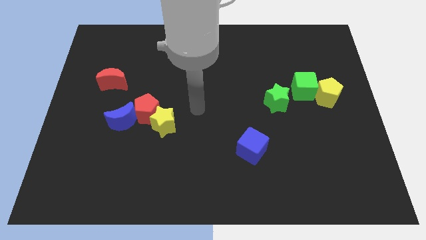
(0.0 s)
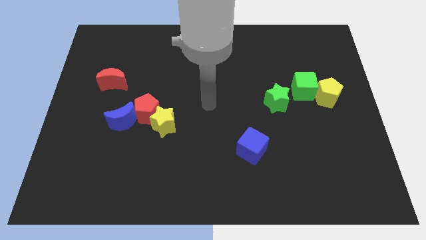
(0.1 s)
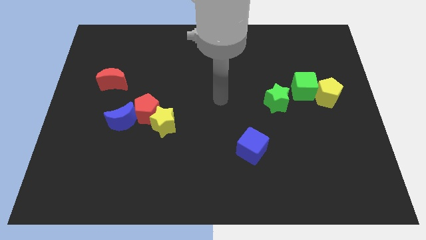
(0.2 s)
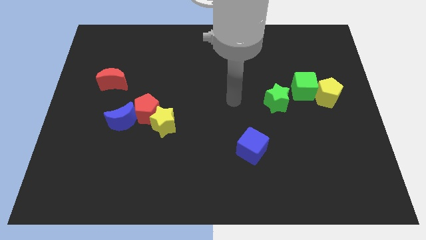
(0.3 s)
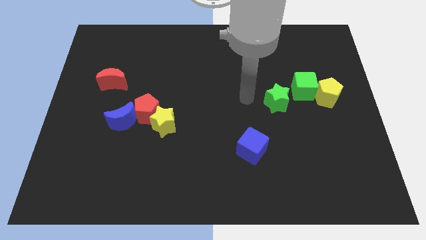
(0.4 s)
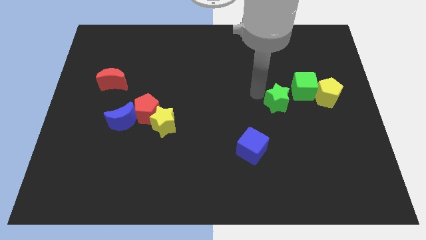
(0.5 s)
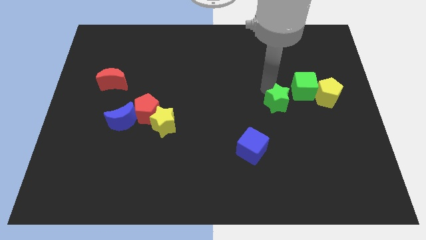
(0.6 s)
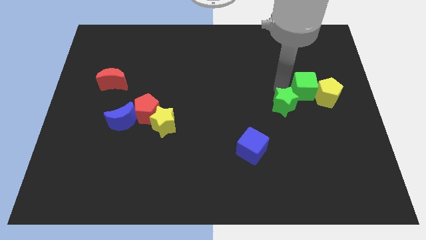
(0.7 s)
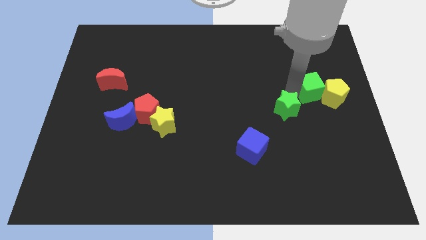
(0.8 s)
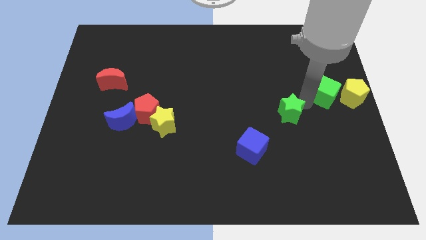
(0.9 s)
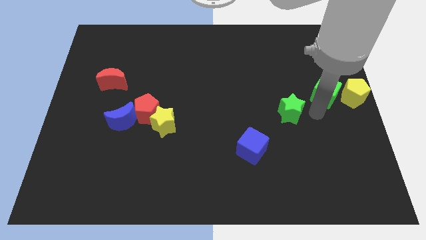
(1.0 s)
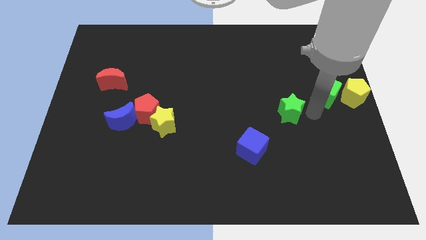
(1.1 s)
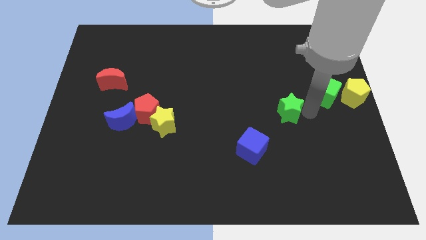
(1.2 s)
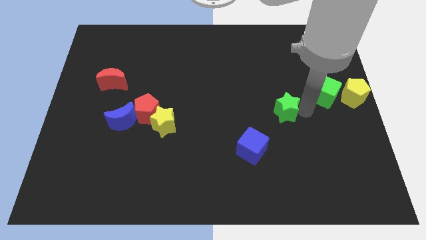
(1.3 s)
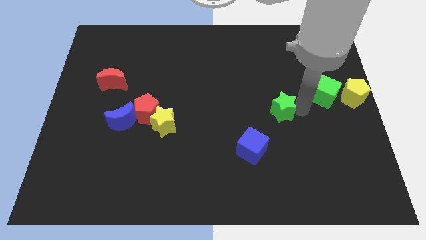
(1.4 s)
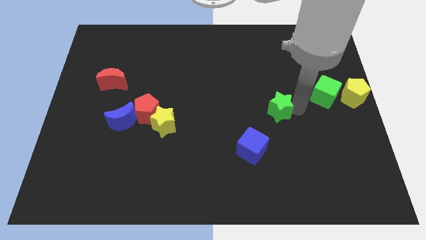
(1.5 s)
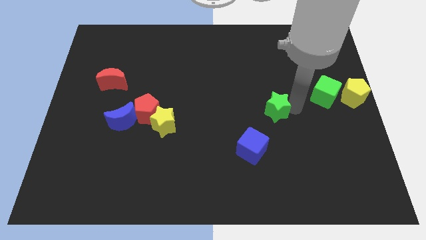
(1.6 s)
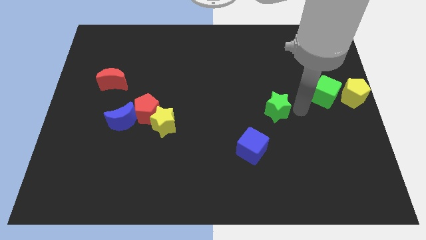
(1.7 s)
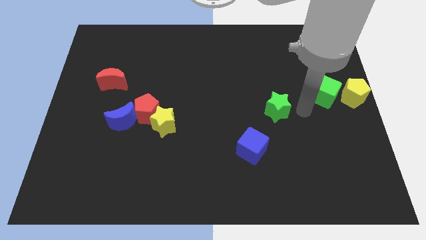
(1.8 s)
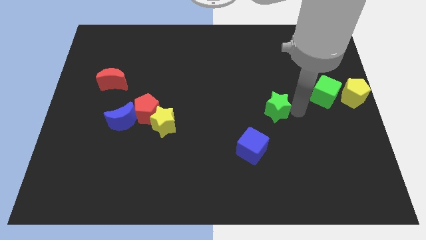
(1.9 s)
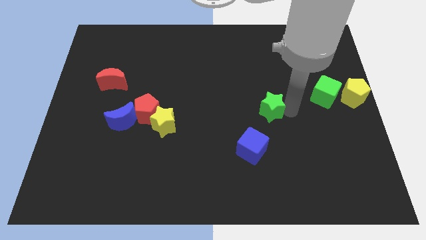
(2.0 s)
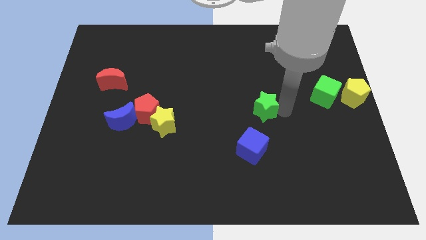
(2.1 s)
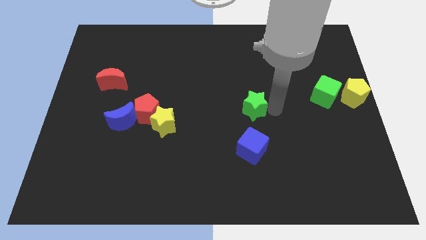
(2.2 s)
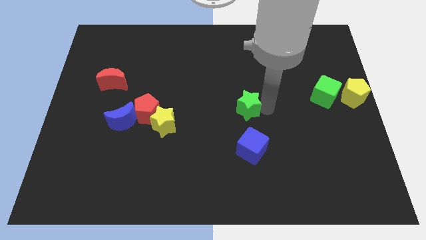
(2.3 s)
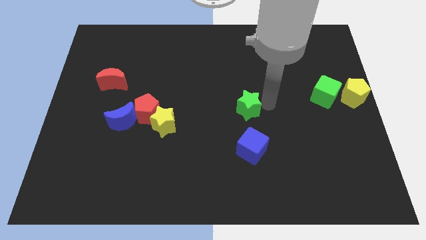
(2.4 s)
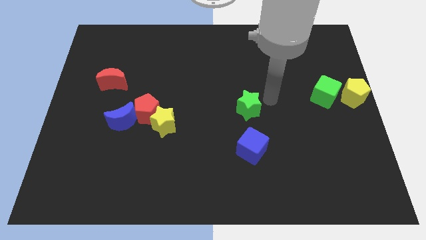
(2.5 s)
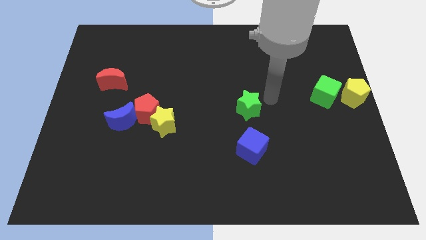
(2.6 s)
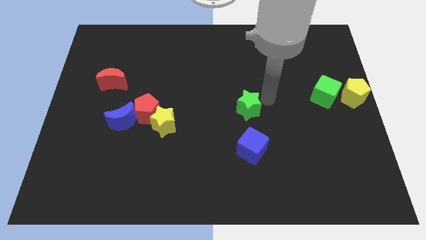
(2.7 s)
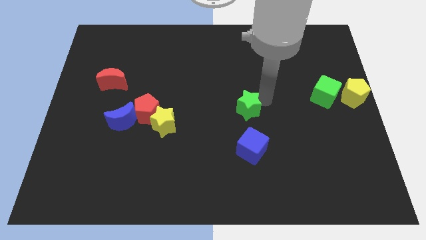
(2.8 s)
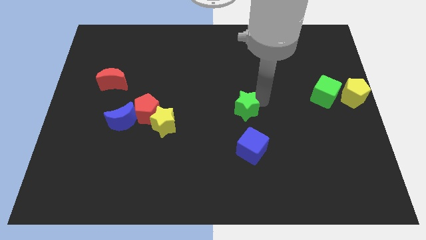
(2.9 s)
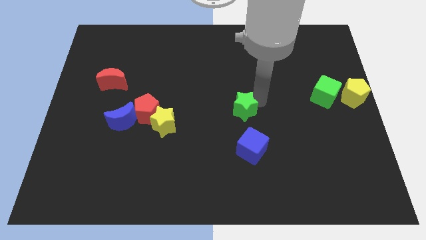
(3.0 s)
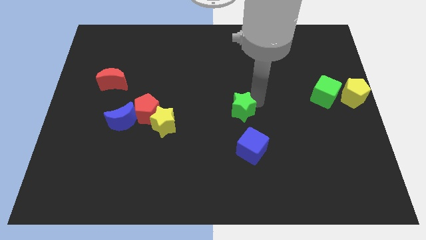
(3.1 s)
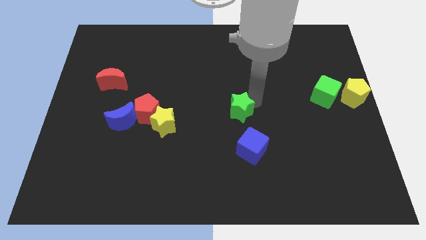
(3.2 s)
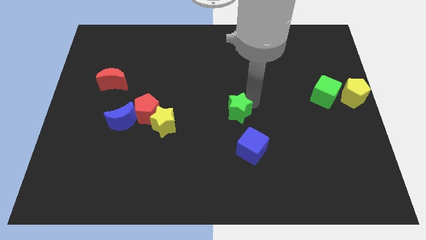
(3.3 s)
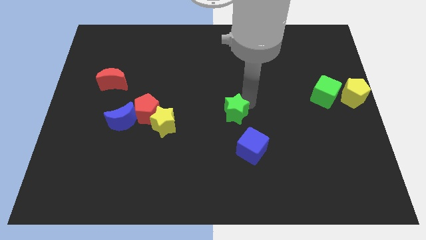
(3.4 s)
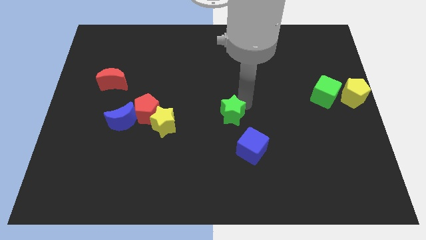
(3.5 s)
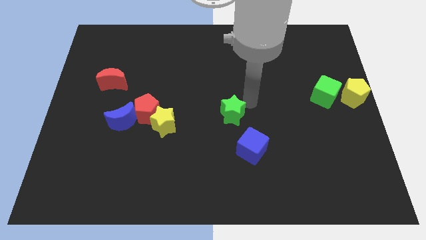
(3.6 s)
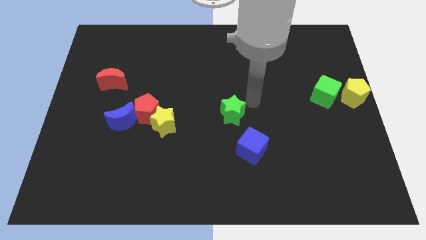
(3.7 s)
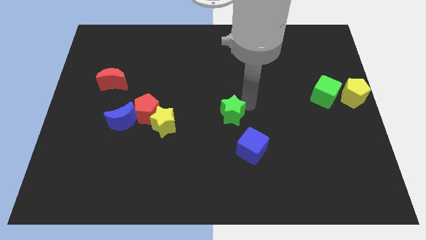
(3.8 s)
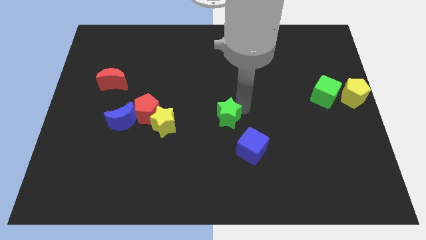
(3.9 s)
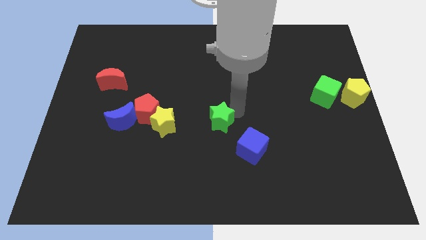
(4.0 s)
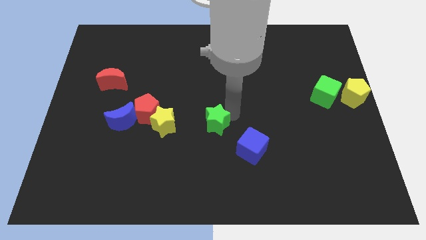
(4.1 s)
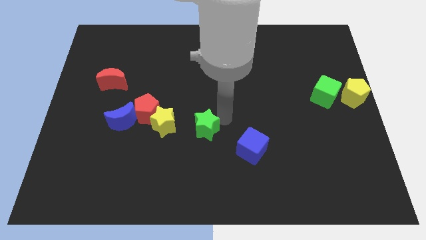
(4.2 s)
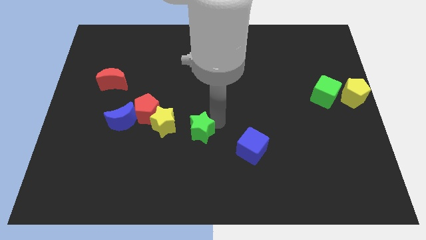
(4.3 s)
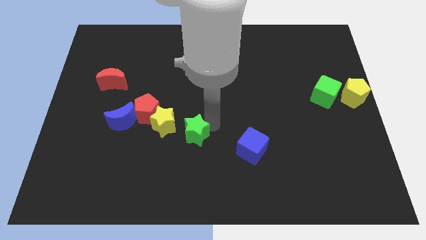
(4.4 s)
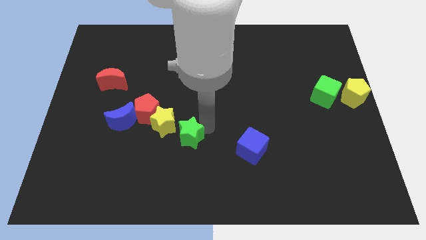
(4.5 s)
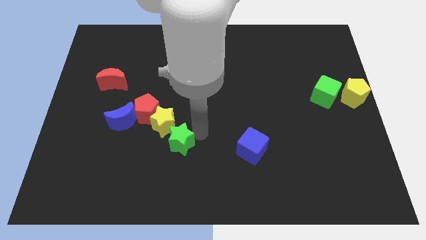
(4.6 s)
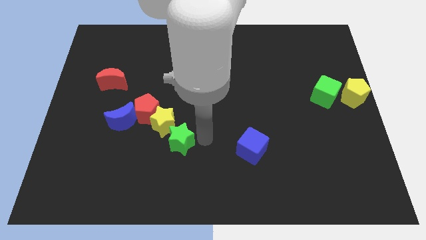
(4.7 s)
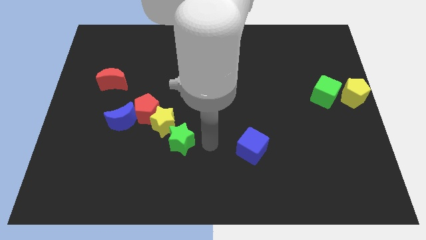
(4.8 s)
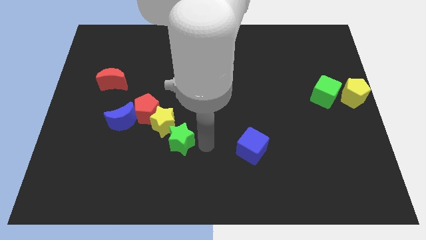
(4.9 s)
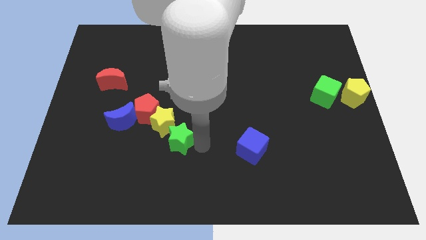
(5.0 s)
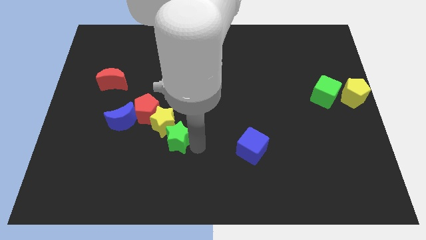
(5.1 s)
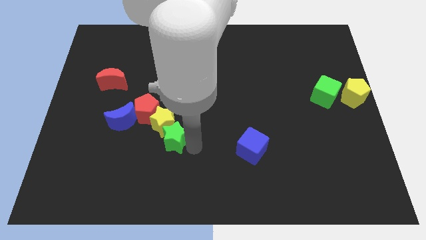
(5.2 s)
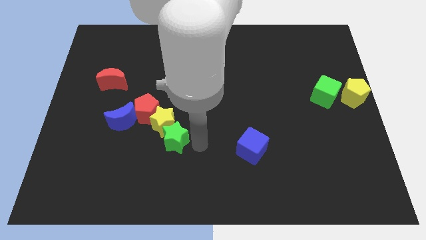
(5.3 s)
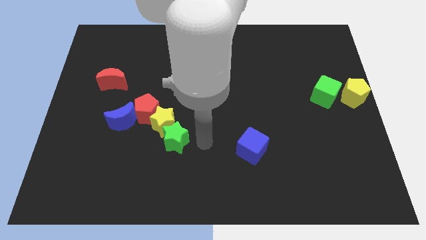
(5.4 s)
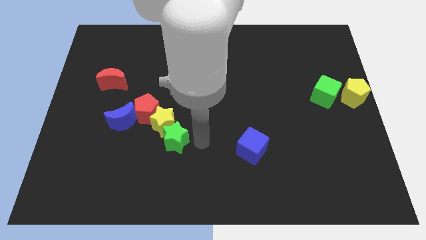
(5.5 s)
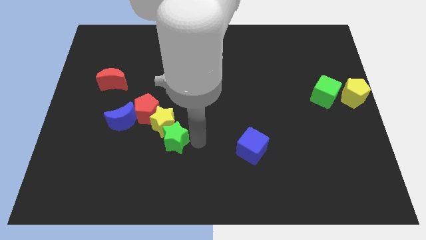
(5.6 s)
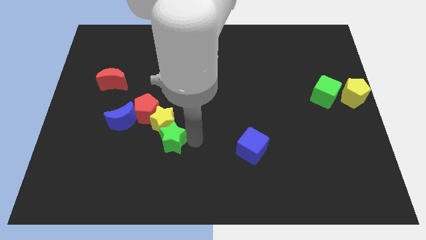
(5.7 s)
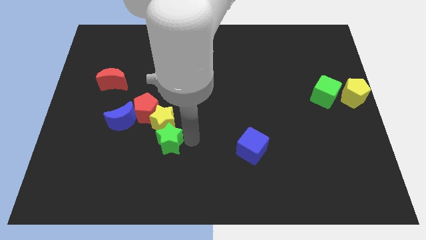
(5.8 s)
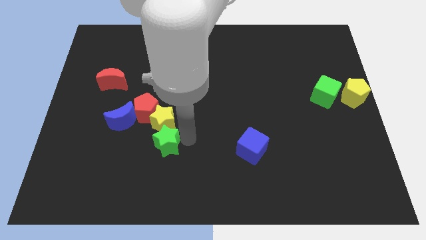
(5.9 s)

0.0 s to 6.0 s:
move the green star to the bottom right of the blue moon

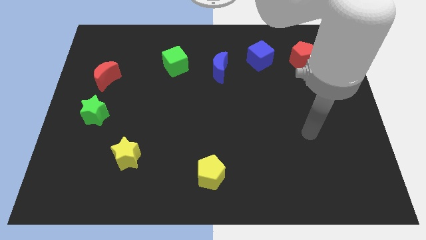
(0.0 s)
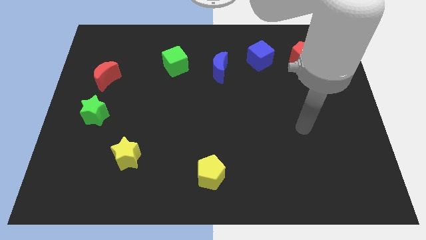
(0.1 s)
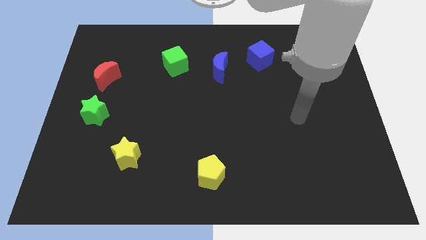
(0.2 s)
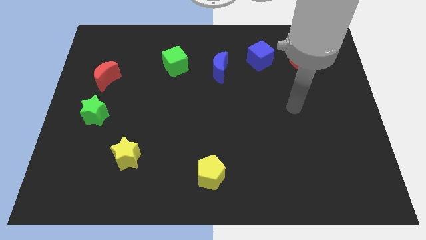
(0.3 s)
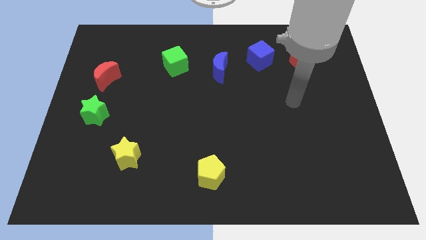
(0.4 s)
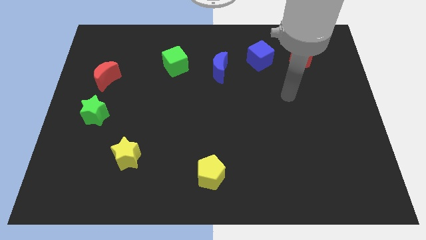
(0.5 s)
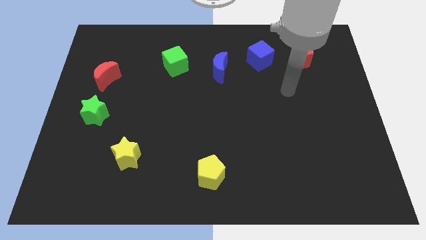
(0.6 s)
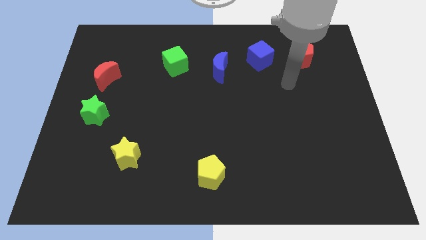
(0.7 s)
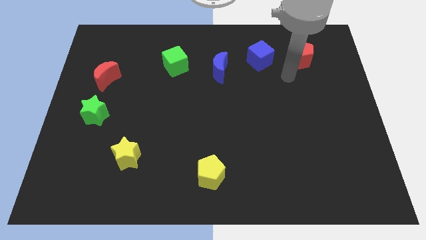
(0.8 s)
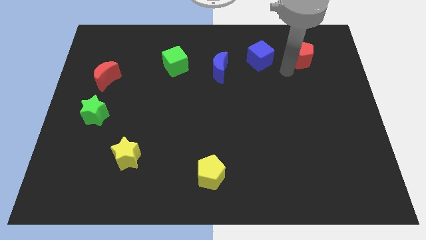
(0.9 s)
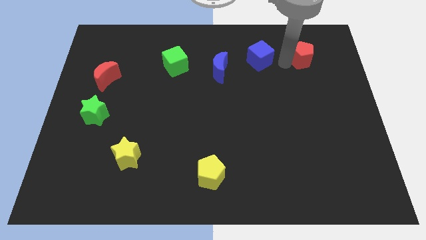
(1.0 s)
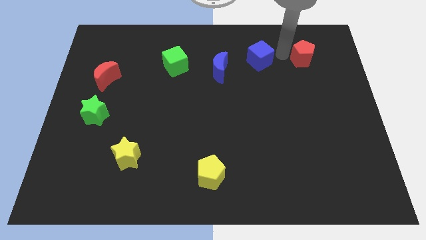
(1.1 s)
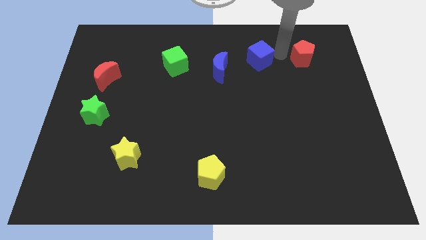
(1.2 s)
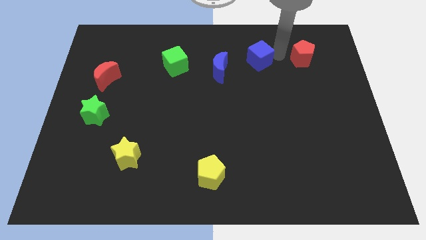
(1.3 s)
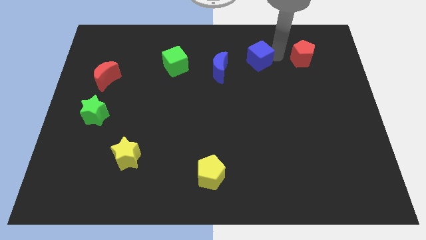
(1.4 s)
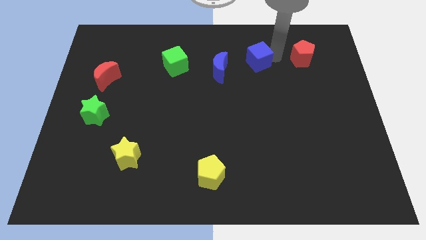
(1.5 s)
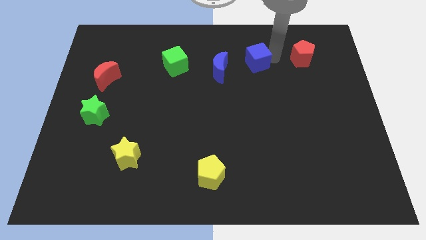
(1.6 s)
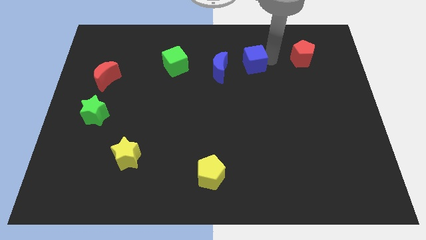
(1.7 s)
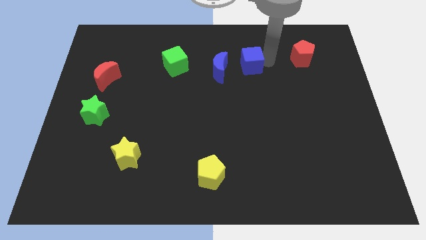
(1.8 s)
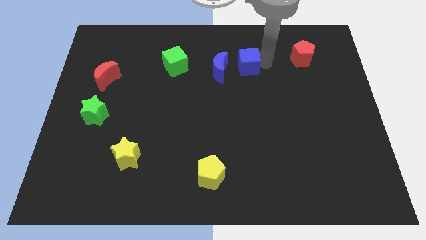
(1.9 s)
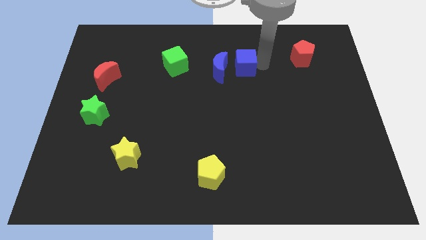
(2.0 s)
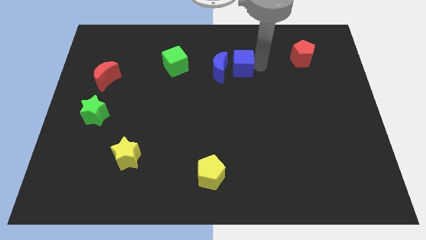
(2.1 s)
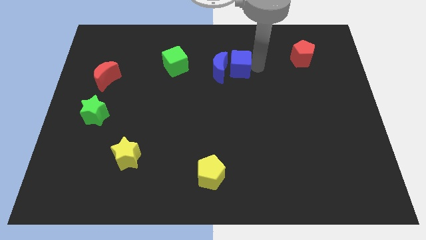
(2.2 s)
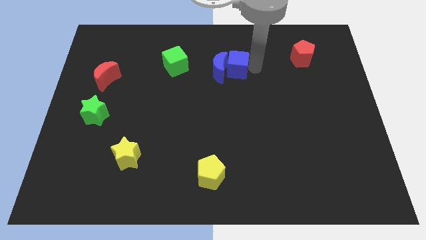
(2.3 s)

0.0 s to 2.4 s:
push the blue cube right of the green cube
